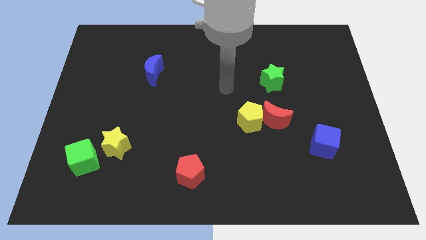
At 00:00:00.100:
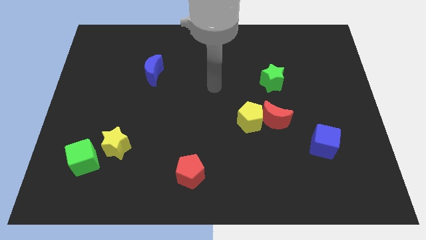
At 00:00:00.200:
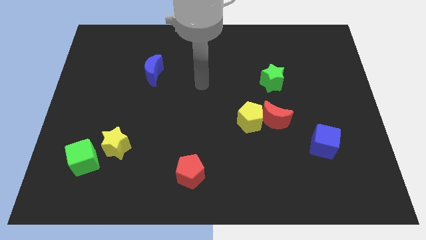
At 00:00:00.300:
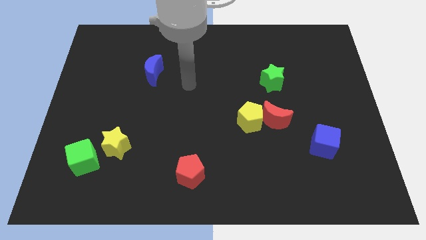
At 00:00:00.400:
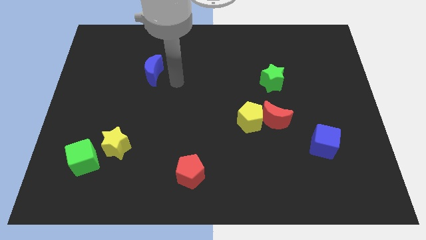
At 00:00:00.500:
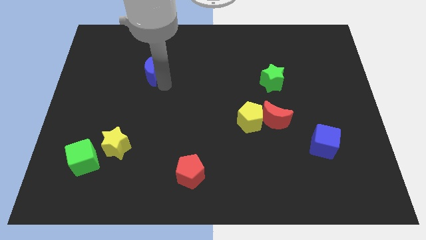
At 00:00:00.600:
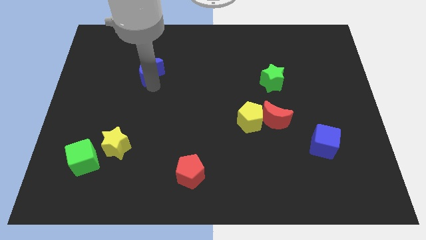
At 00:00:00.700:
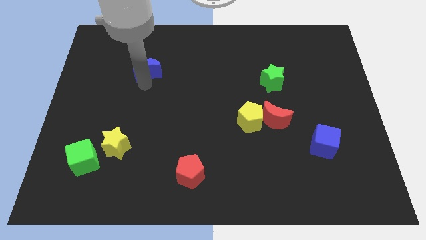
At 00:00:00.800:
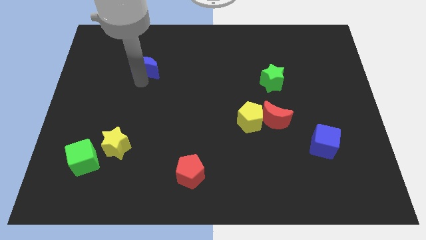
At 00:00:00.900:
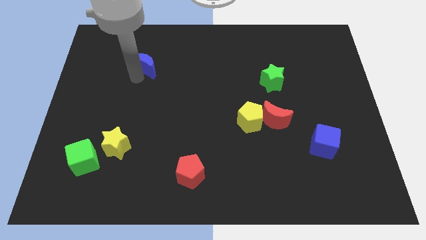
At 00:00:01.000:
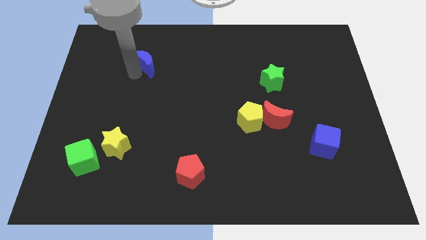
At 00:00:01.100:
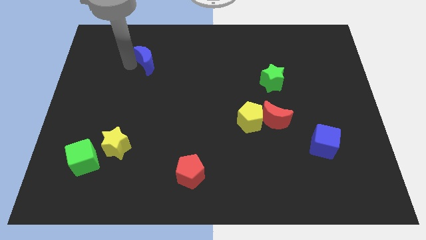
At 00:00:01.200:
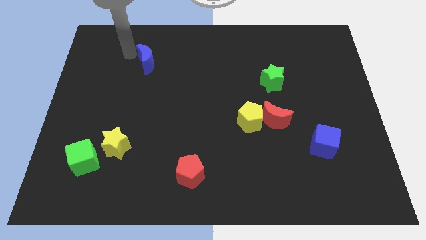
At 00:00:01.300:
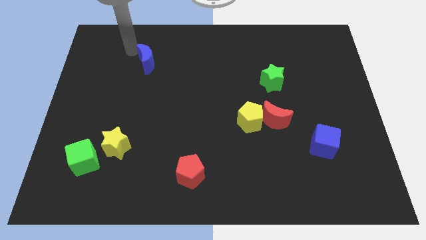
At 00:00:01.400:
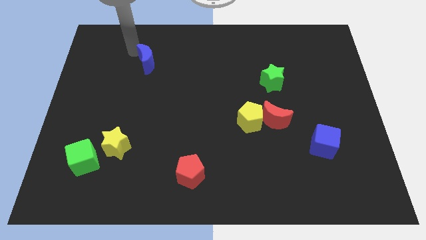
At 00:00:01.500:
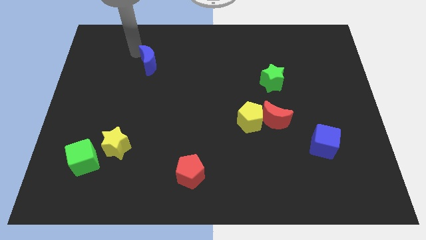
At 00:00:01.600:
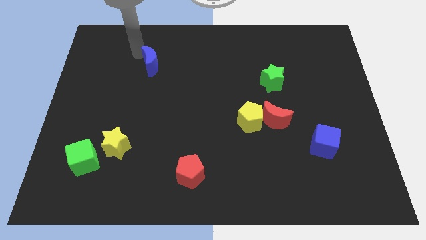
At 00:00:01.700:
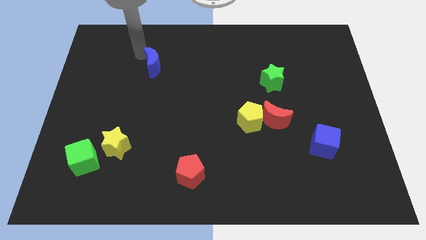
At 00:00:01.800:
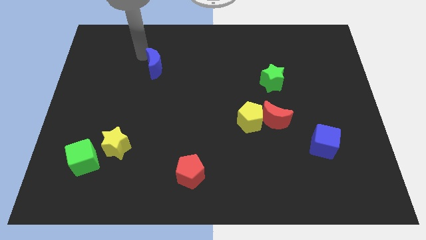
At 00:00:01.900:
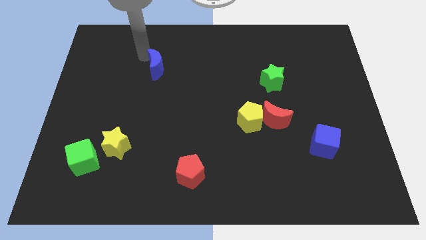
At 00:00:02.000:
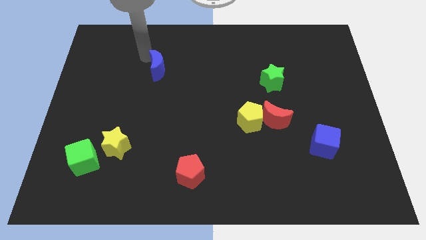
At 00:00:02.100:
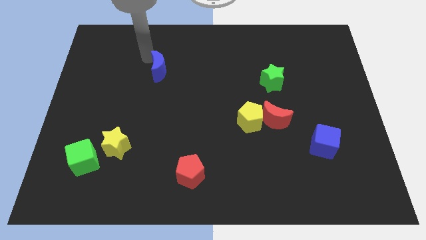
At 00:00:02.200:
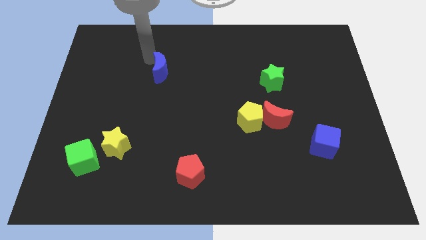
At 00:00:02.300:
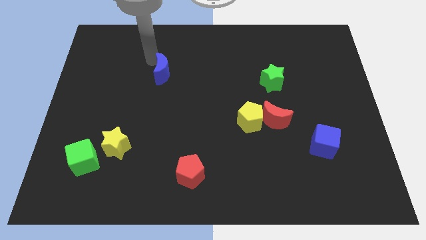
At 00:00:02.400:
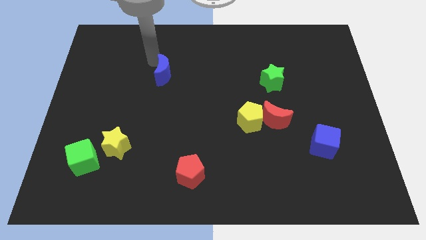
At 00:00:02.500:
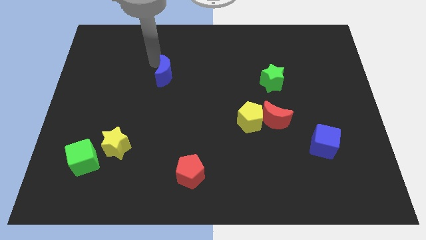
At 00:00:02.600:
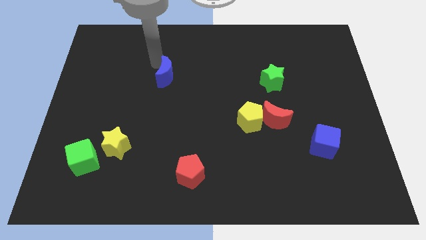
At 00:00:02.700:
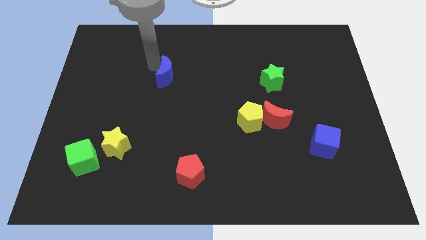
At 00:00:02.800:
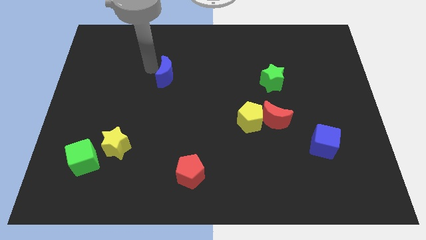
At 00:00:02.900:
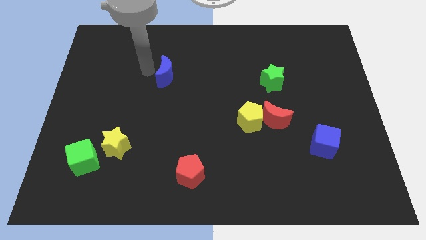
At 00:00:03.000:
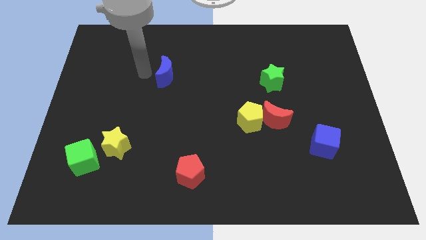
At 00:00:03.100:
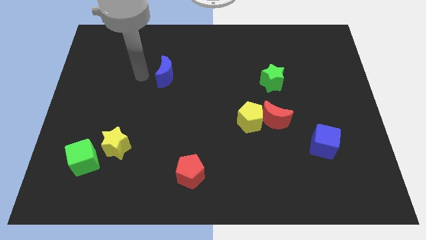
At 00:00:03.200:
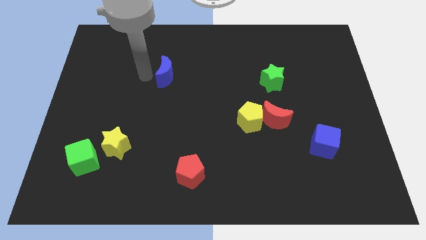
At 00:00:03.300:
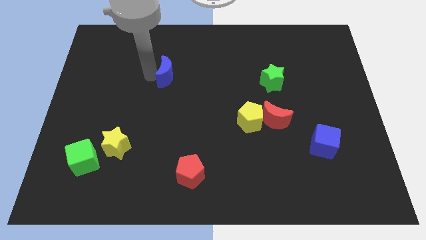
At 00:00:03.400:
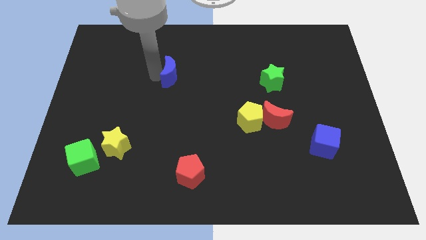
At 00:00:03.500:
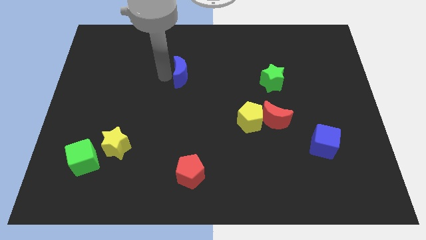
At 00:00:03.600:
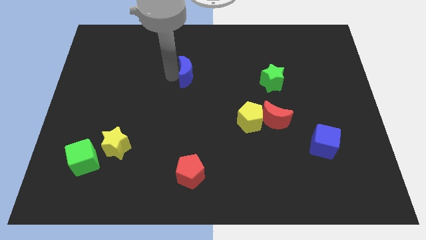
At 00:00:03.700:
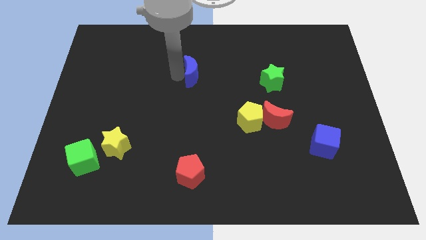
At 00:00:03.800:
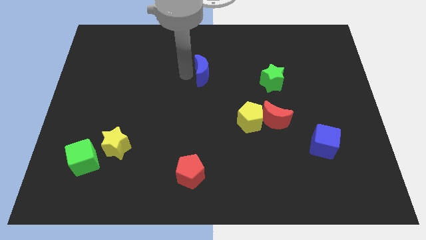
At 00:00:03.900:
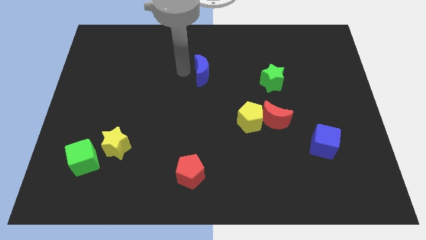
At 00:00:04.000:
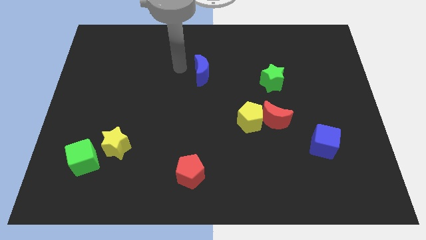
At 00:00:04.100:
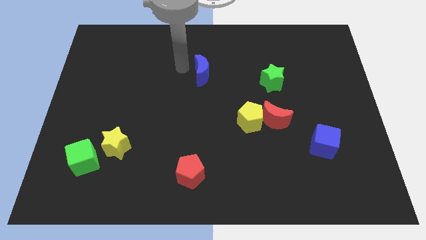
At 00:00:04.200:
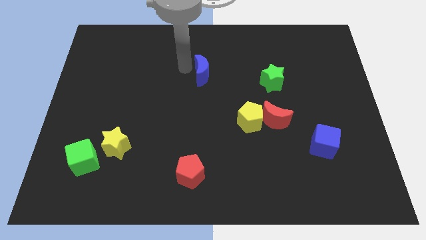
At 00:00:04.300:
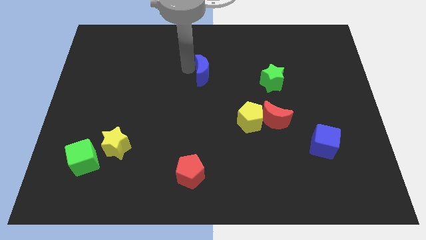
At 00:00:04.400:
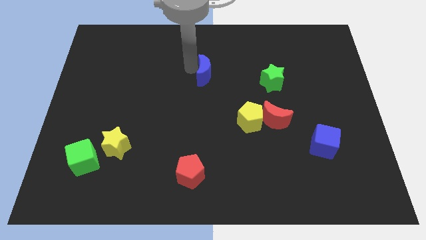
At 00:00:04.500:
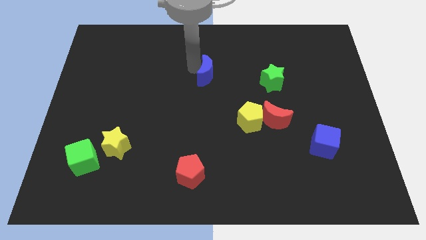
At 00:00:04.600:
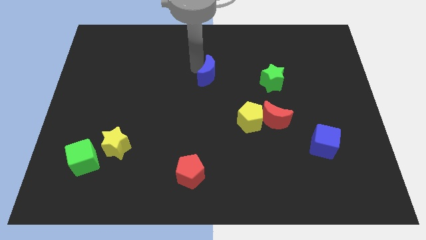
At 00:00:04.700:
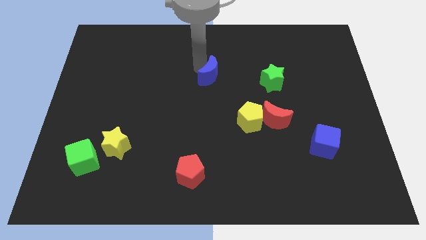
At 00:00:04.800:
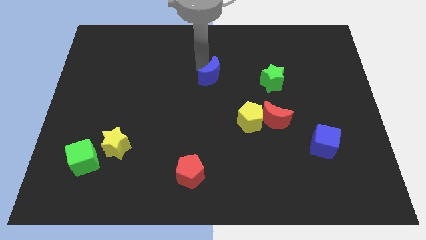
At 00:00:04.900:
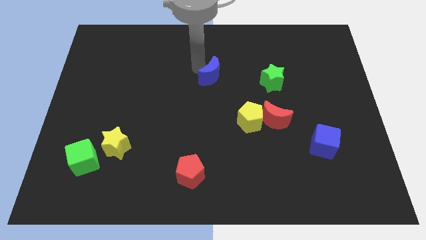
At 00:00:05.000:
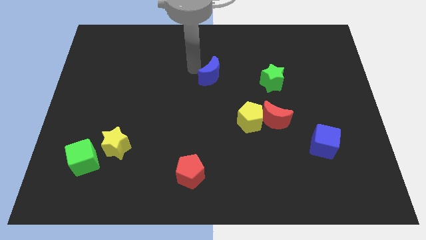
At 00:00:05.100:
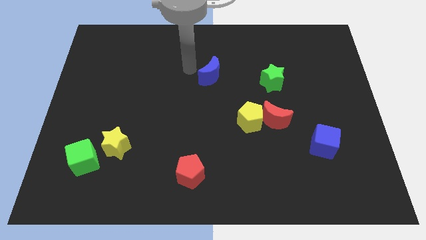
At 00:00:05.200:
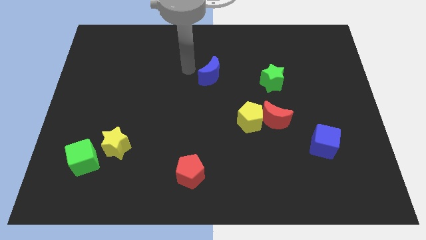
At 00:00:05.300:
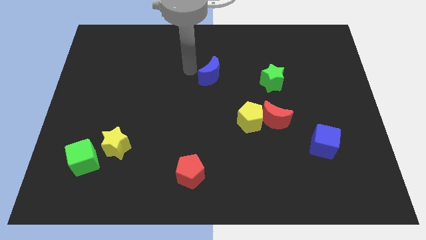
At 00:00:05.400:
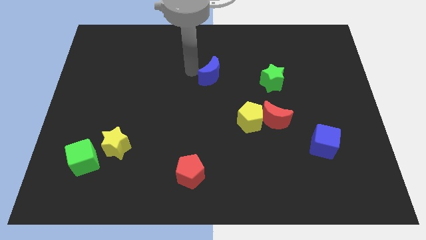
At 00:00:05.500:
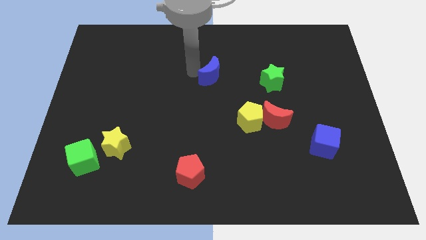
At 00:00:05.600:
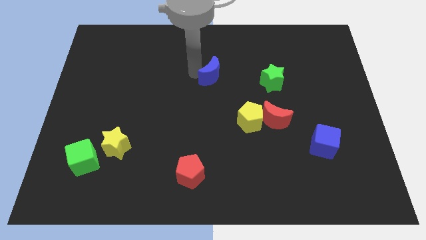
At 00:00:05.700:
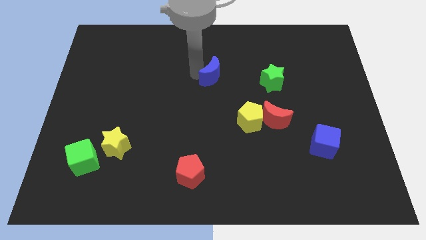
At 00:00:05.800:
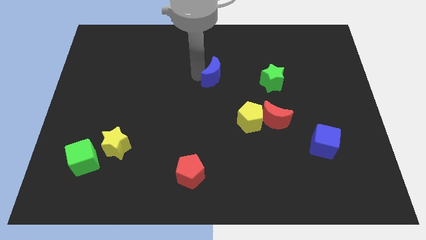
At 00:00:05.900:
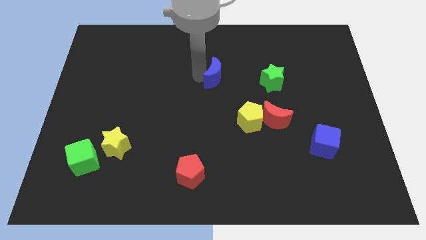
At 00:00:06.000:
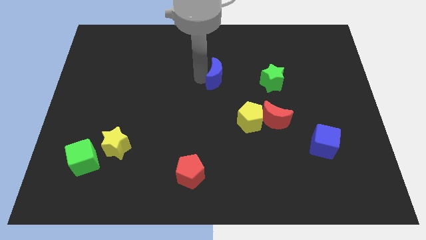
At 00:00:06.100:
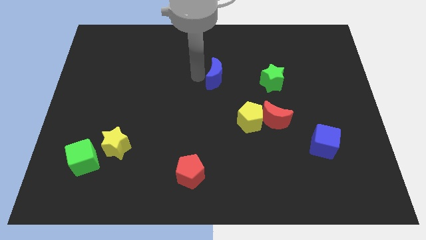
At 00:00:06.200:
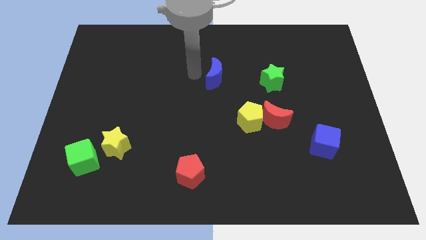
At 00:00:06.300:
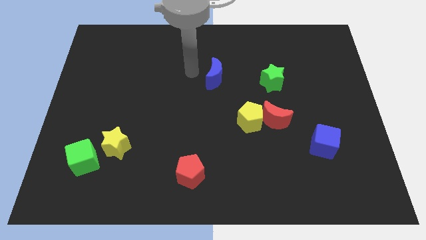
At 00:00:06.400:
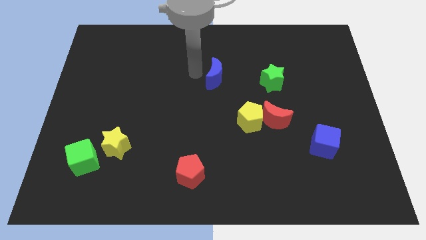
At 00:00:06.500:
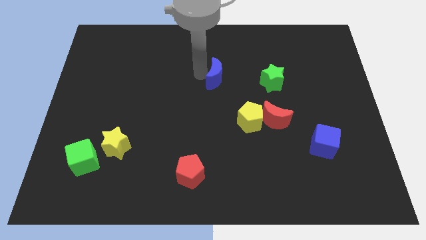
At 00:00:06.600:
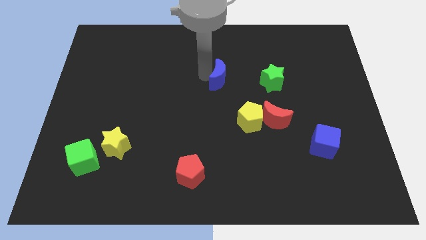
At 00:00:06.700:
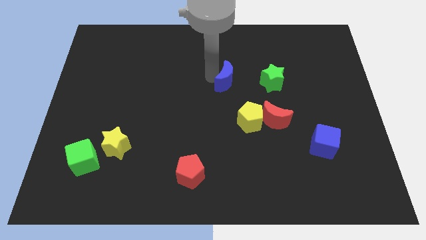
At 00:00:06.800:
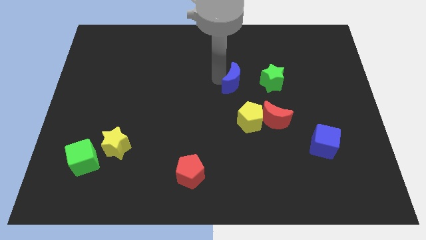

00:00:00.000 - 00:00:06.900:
move the blue moon to the top side of the yellow pentagon

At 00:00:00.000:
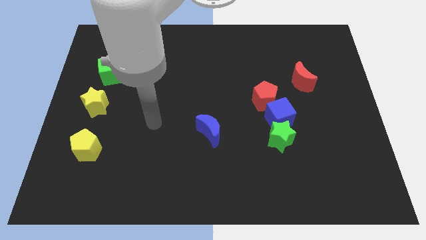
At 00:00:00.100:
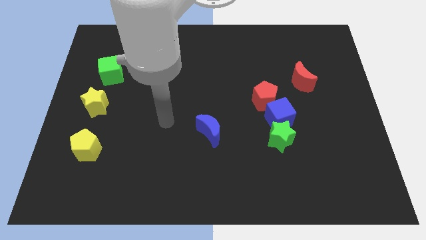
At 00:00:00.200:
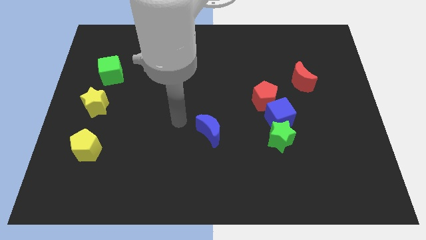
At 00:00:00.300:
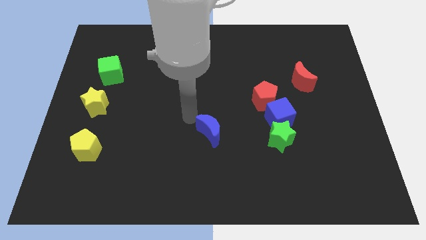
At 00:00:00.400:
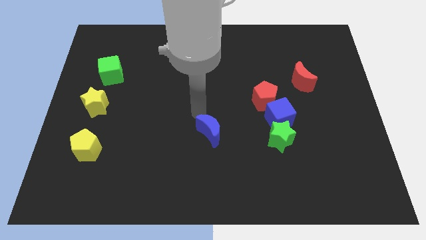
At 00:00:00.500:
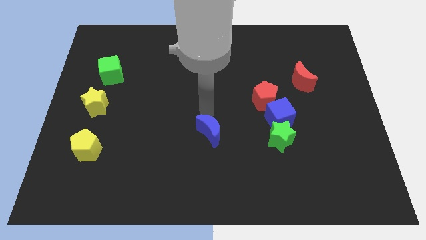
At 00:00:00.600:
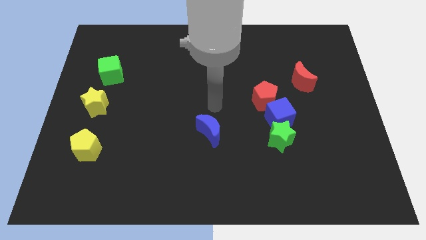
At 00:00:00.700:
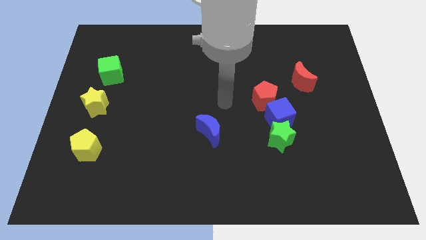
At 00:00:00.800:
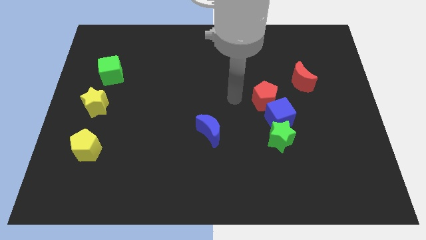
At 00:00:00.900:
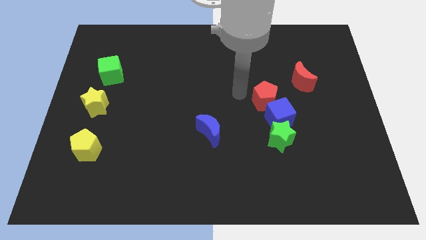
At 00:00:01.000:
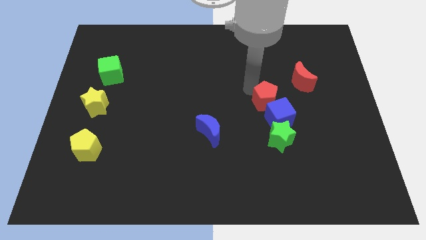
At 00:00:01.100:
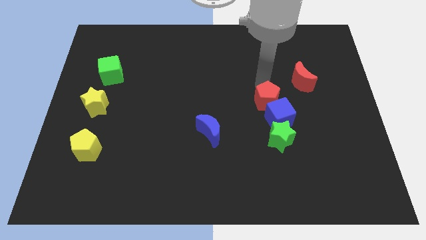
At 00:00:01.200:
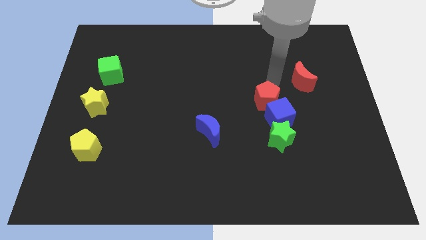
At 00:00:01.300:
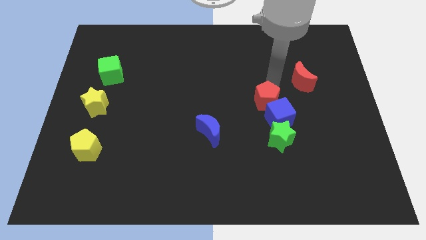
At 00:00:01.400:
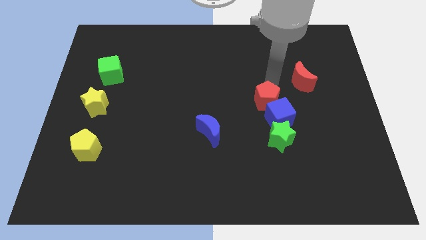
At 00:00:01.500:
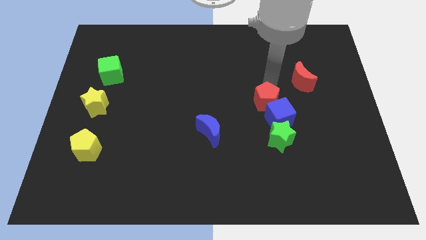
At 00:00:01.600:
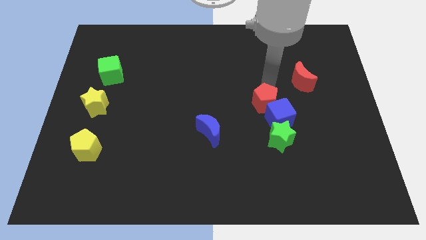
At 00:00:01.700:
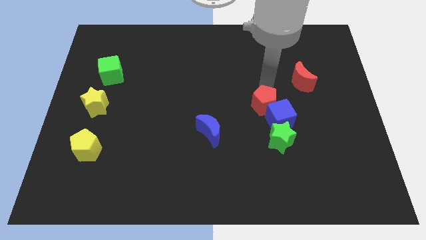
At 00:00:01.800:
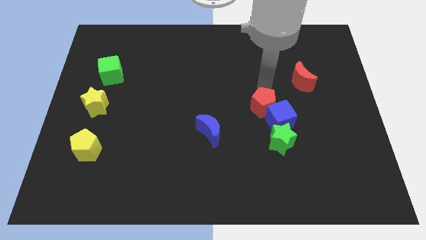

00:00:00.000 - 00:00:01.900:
push the red pentagon diagonally up and to the left of the green star
